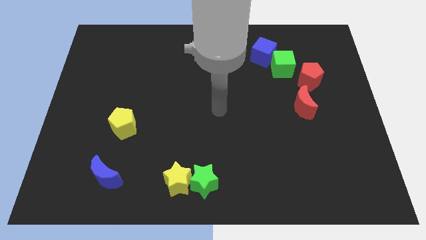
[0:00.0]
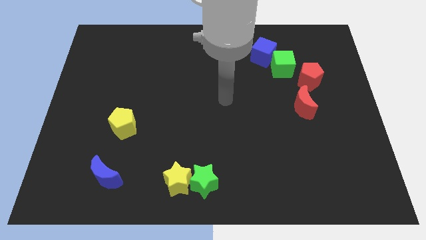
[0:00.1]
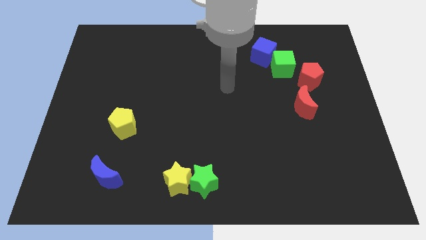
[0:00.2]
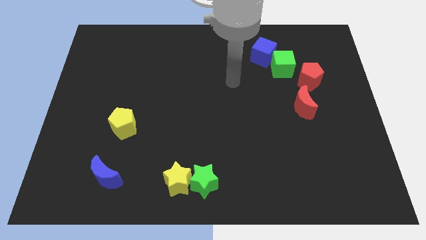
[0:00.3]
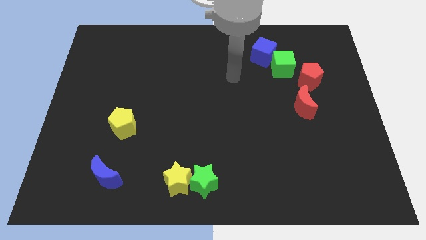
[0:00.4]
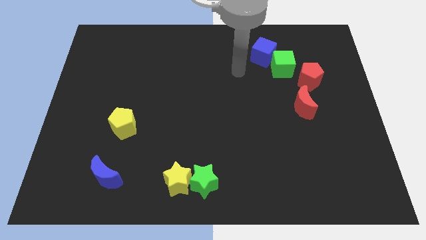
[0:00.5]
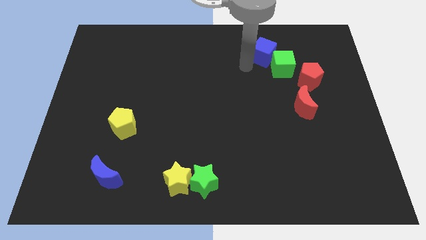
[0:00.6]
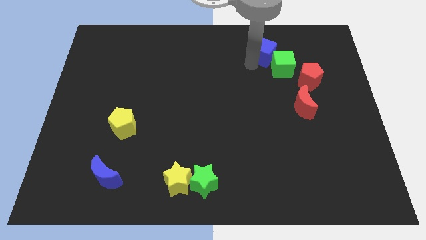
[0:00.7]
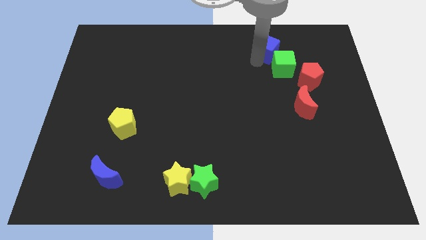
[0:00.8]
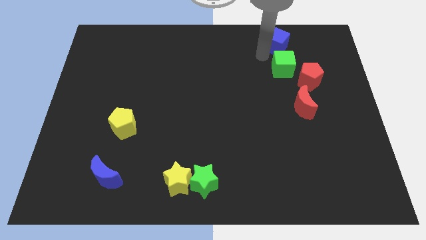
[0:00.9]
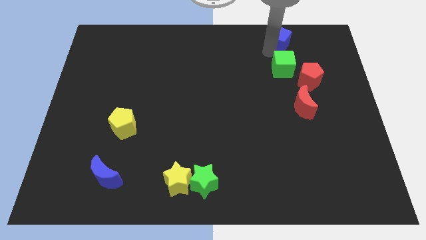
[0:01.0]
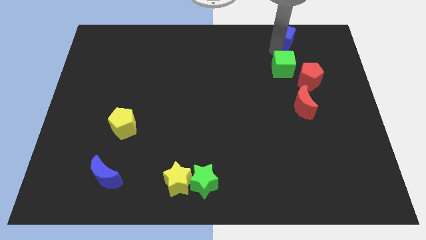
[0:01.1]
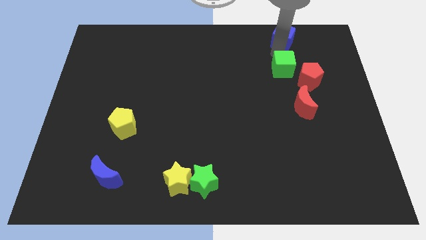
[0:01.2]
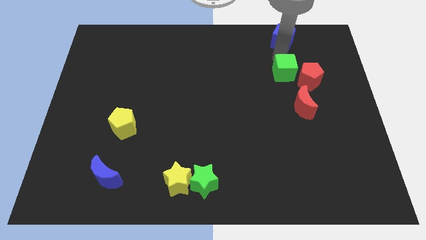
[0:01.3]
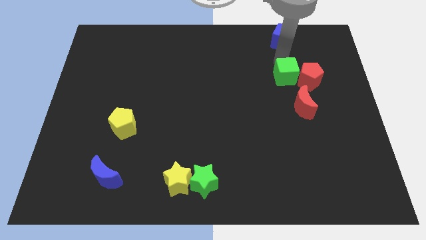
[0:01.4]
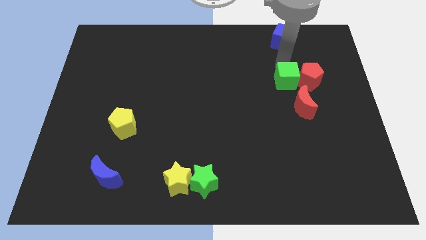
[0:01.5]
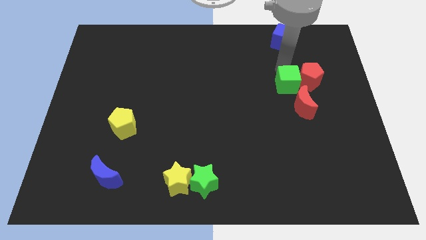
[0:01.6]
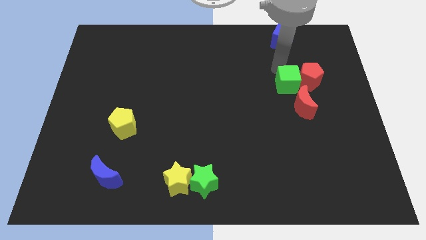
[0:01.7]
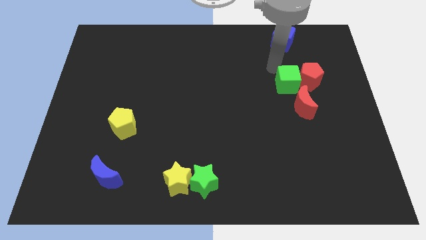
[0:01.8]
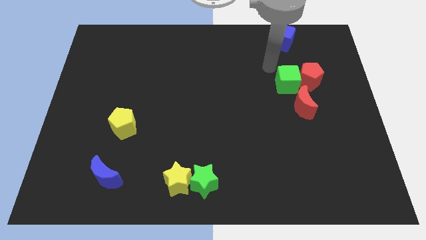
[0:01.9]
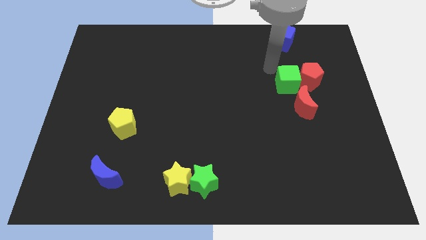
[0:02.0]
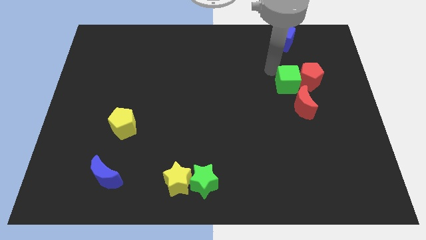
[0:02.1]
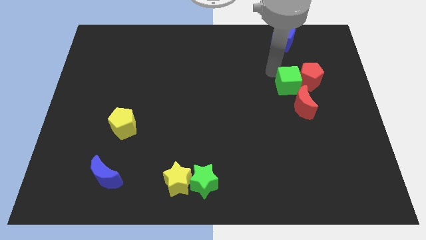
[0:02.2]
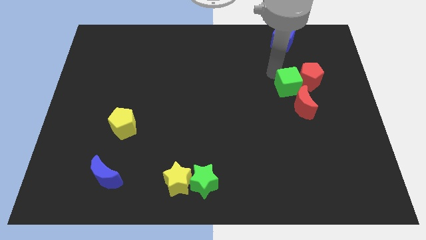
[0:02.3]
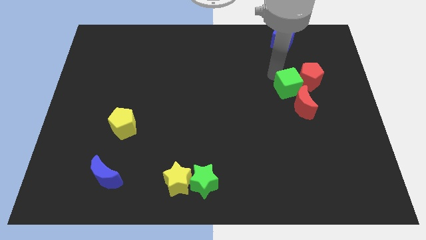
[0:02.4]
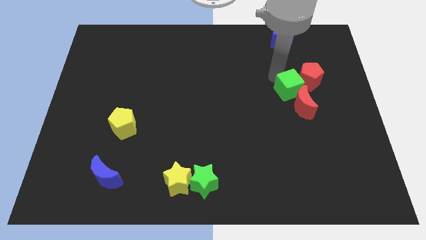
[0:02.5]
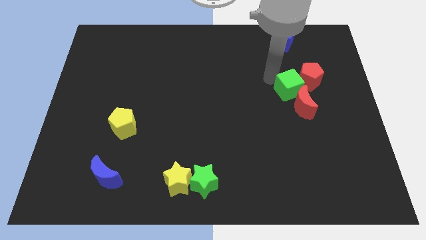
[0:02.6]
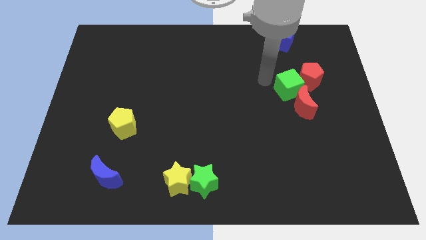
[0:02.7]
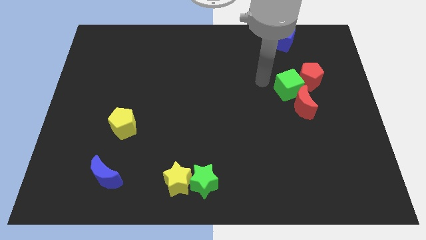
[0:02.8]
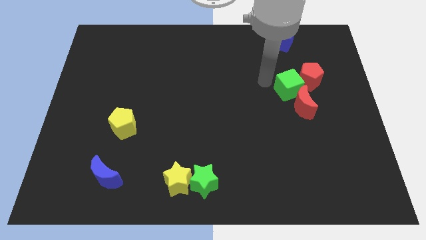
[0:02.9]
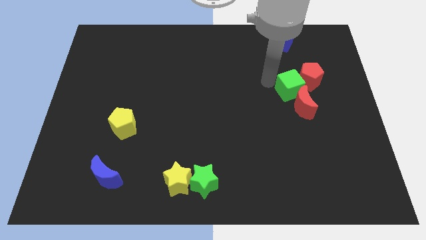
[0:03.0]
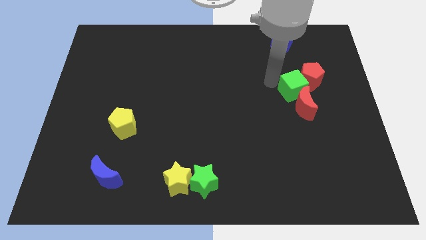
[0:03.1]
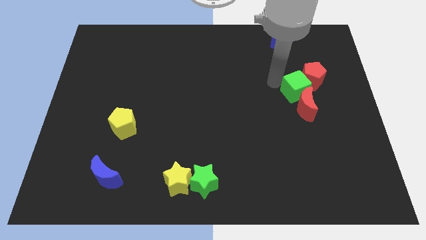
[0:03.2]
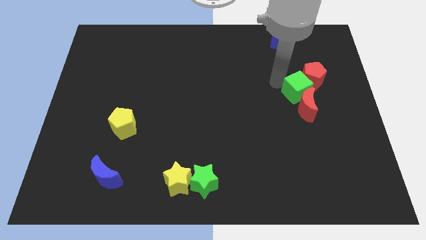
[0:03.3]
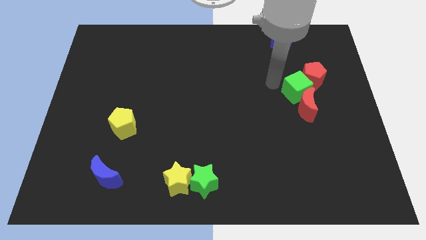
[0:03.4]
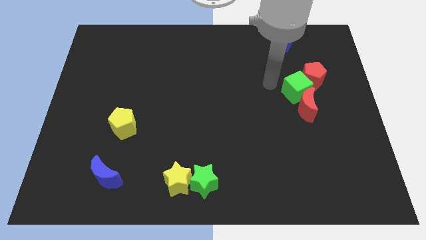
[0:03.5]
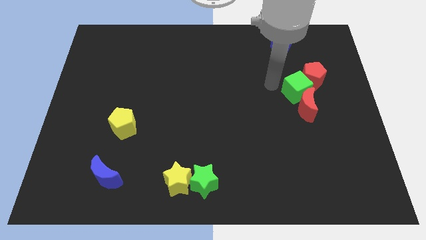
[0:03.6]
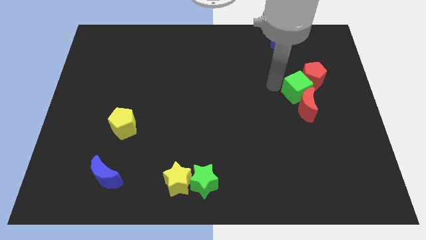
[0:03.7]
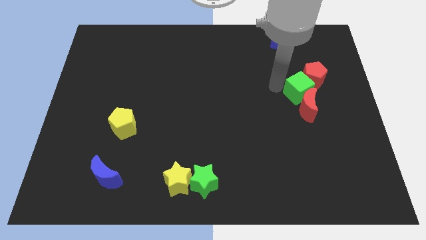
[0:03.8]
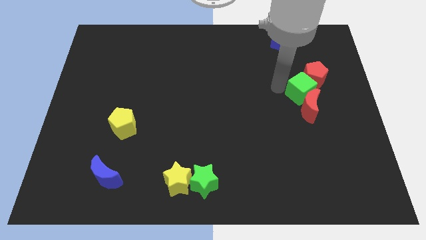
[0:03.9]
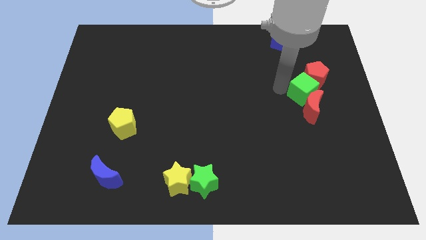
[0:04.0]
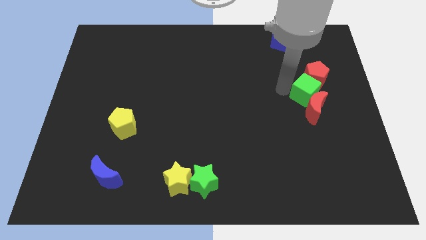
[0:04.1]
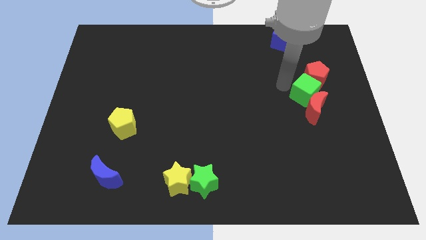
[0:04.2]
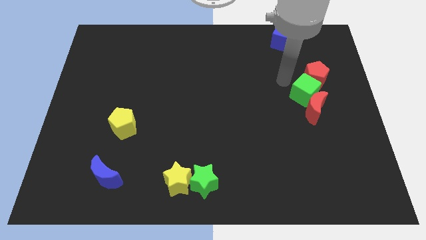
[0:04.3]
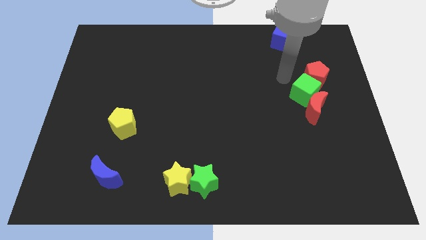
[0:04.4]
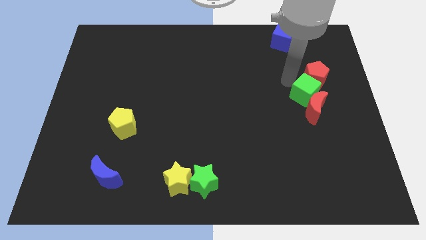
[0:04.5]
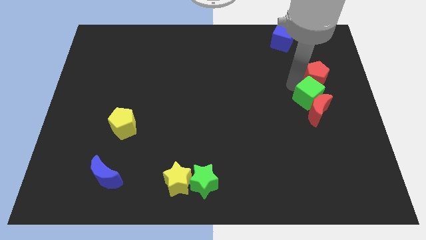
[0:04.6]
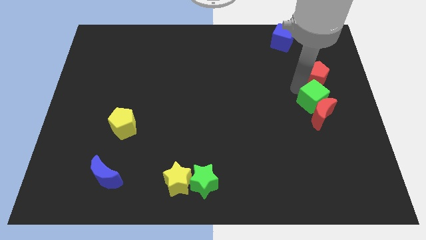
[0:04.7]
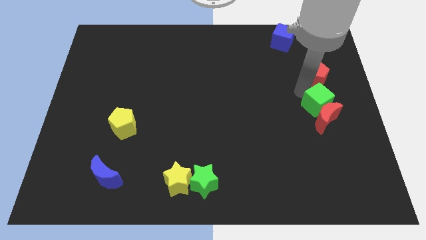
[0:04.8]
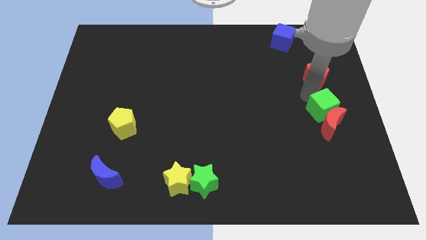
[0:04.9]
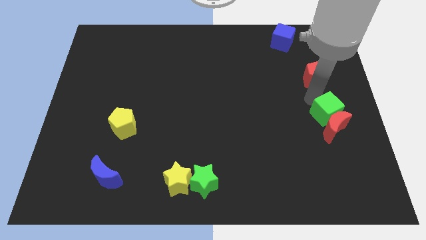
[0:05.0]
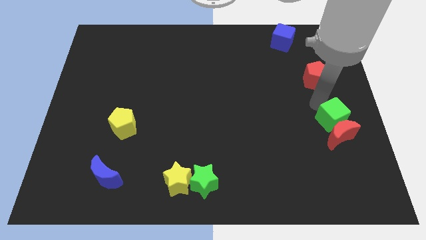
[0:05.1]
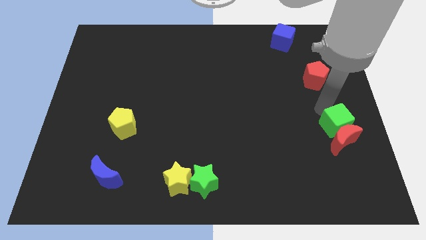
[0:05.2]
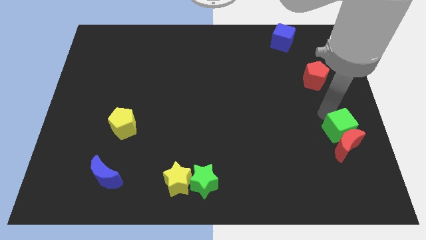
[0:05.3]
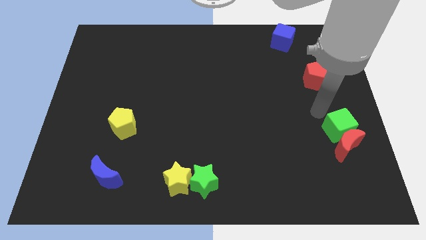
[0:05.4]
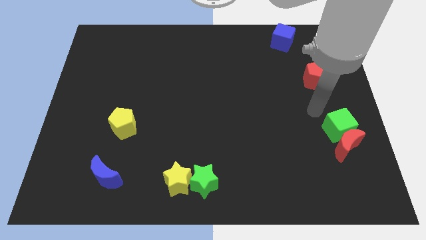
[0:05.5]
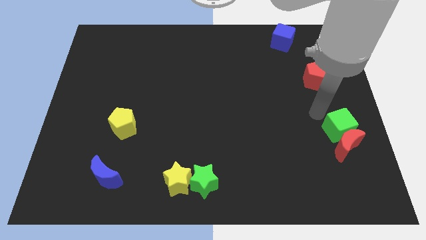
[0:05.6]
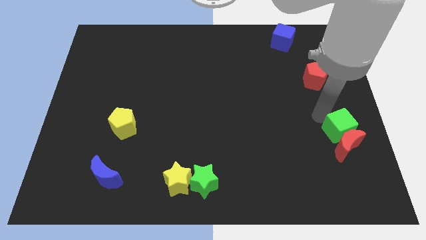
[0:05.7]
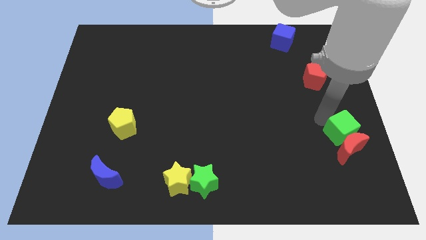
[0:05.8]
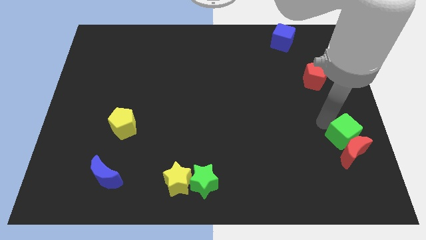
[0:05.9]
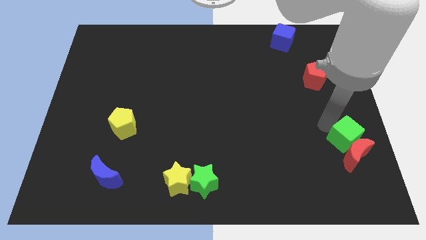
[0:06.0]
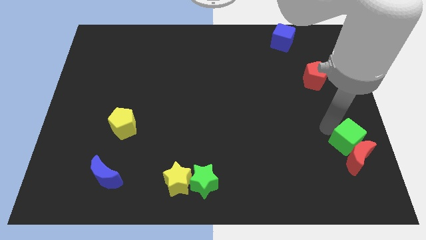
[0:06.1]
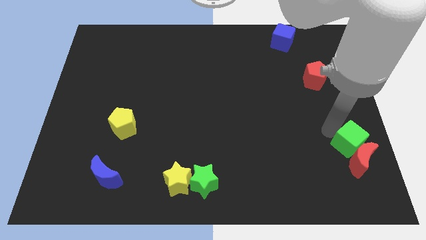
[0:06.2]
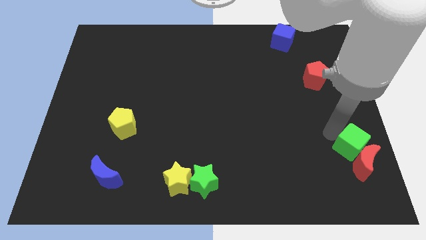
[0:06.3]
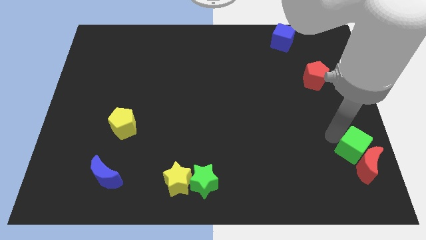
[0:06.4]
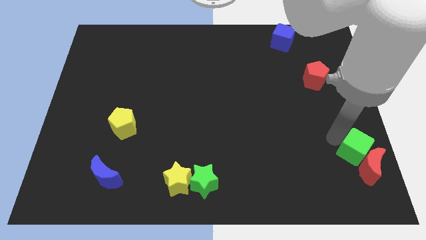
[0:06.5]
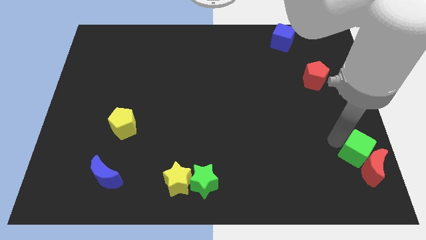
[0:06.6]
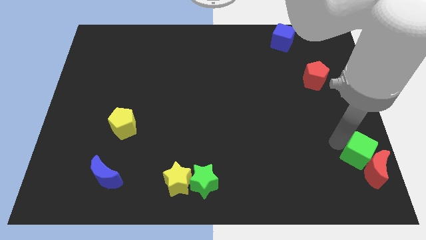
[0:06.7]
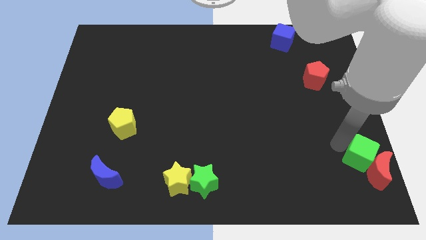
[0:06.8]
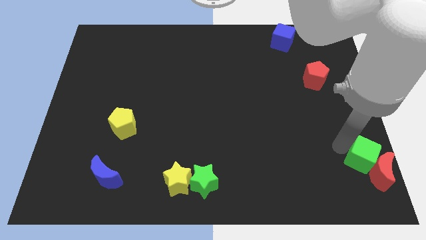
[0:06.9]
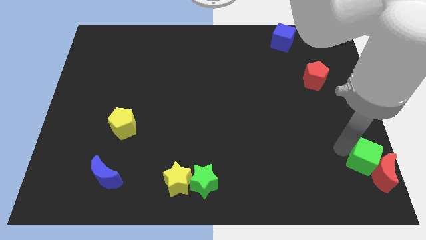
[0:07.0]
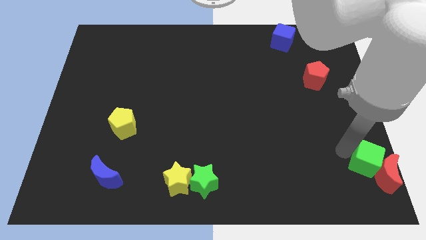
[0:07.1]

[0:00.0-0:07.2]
move the green cube to the bottom right
